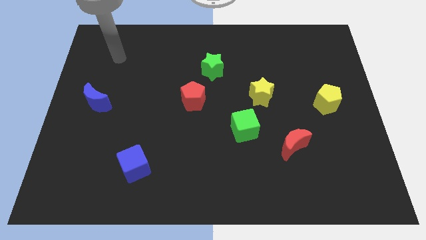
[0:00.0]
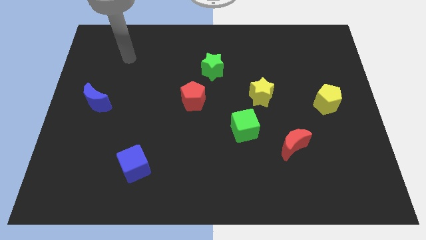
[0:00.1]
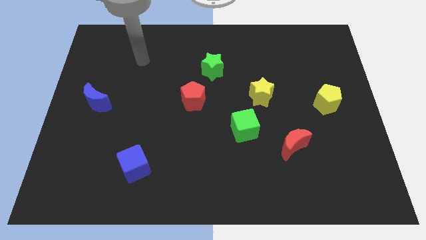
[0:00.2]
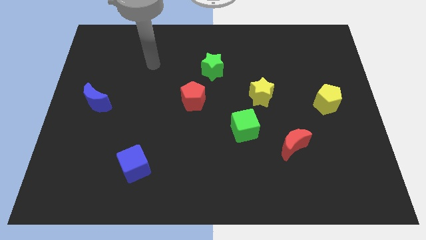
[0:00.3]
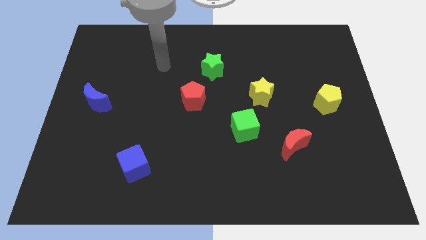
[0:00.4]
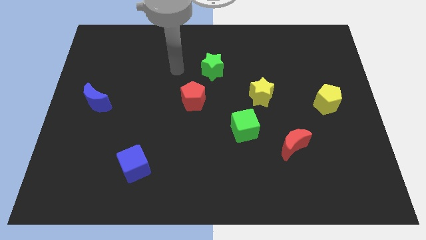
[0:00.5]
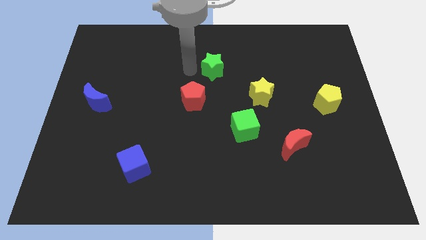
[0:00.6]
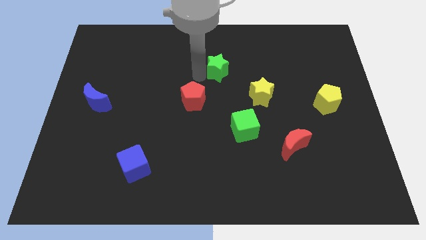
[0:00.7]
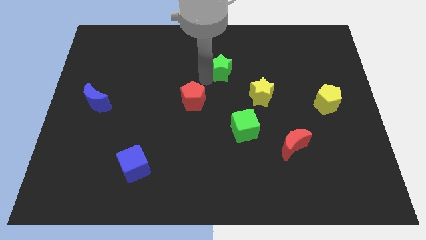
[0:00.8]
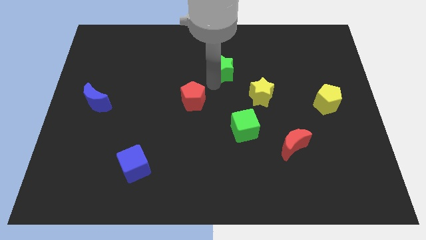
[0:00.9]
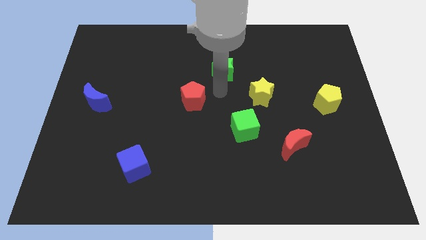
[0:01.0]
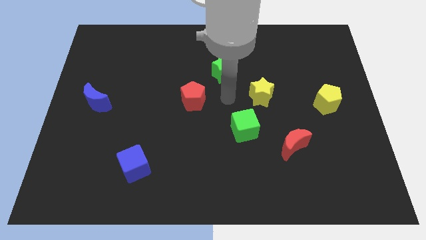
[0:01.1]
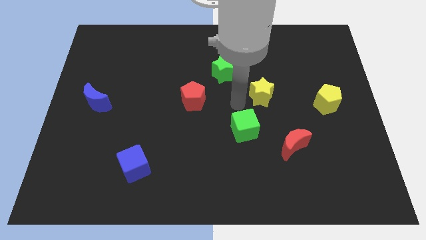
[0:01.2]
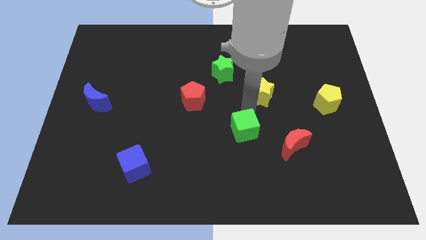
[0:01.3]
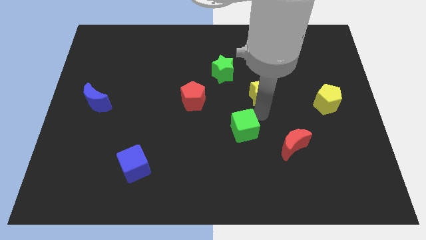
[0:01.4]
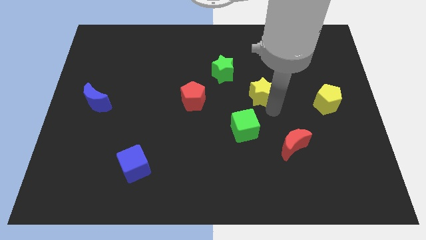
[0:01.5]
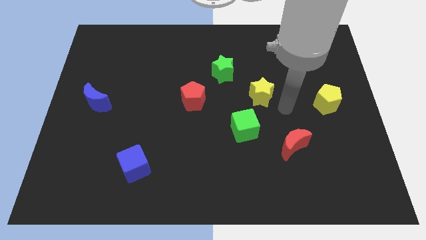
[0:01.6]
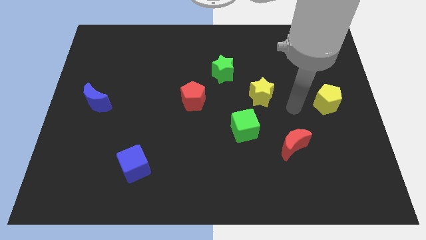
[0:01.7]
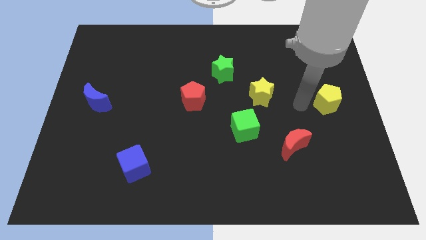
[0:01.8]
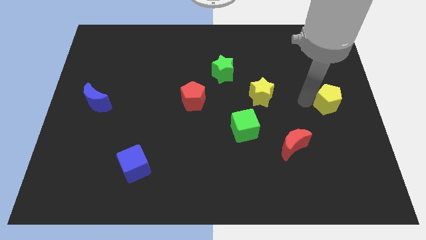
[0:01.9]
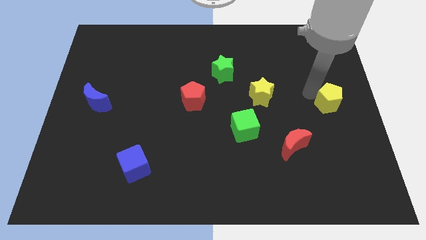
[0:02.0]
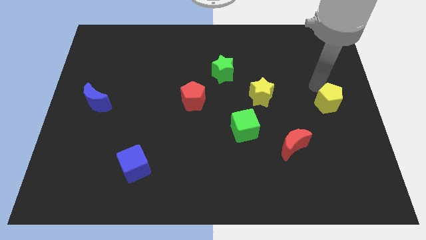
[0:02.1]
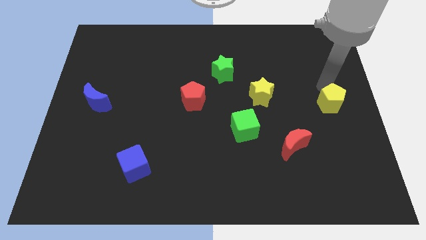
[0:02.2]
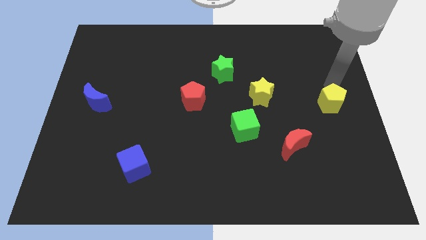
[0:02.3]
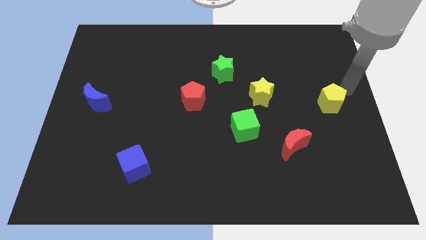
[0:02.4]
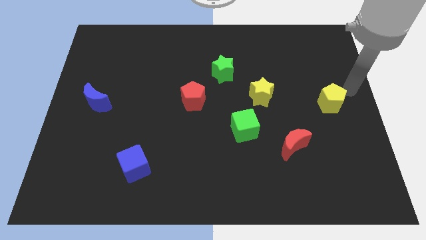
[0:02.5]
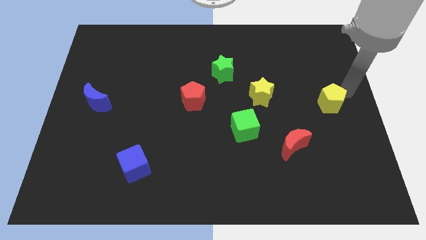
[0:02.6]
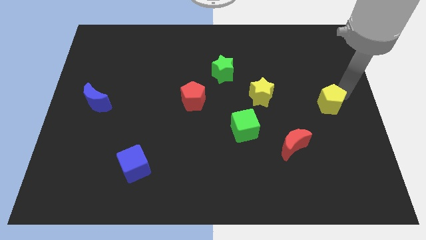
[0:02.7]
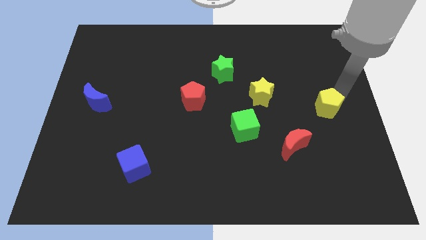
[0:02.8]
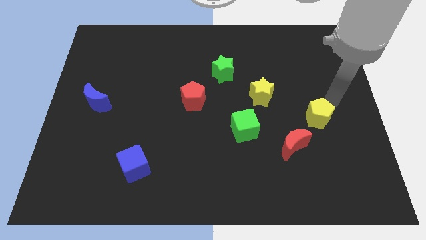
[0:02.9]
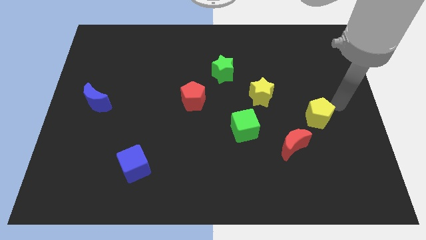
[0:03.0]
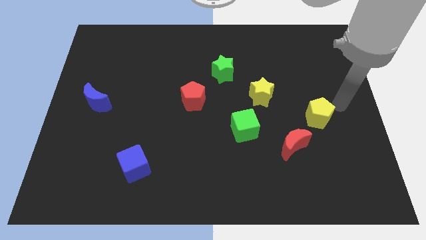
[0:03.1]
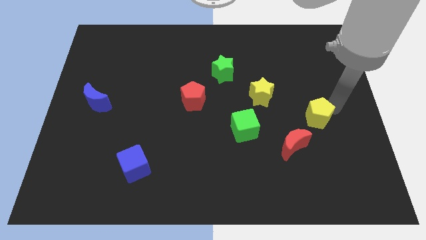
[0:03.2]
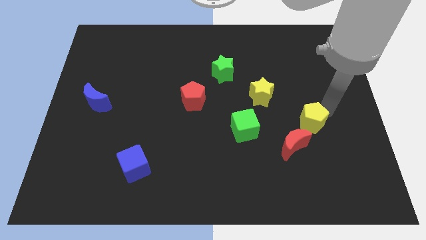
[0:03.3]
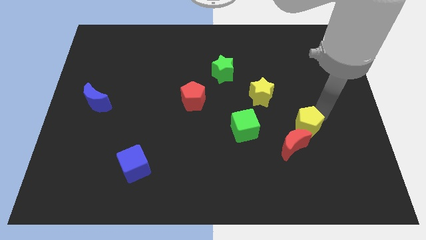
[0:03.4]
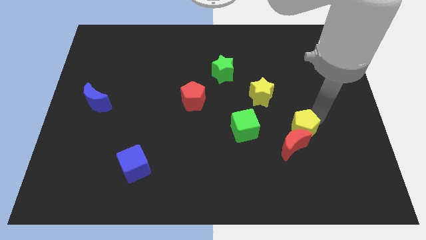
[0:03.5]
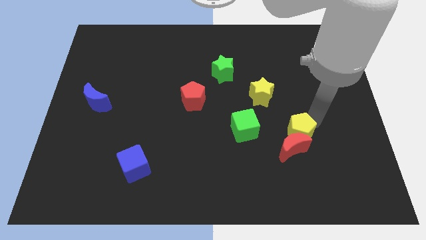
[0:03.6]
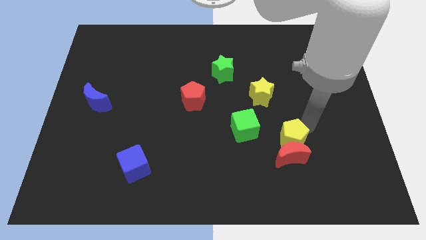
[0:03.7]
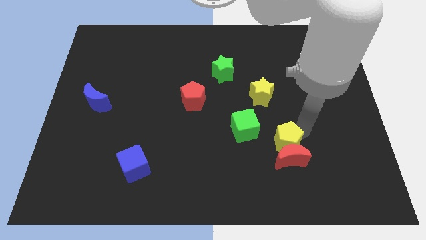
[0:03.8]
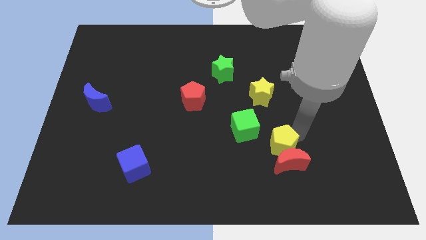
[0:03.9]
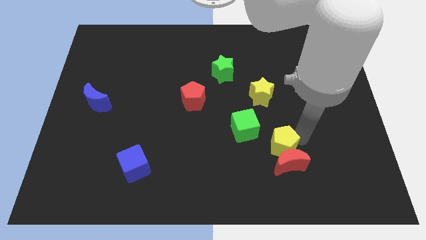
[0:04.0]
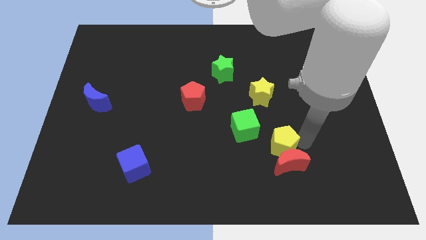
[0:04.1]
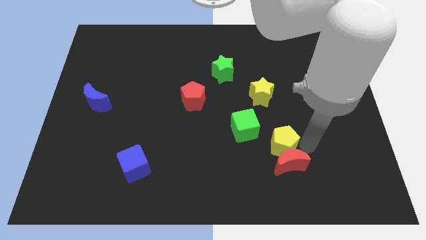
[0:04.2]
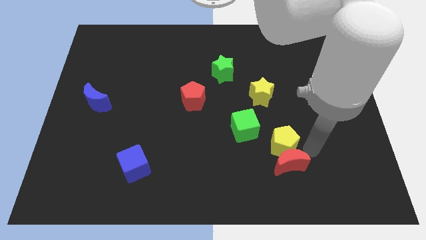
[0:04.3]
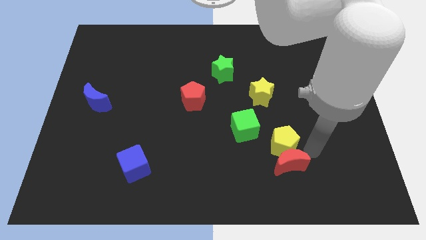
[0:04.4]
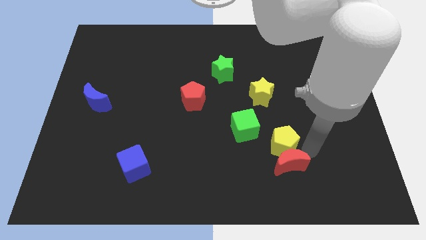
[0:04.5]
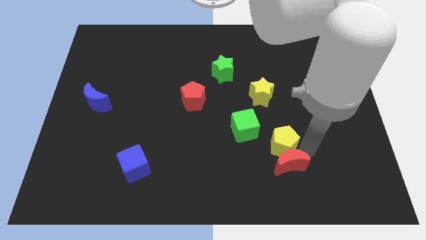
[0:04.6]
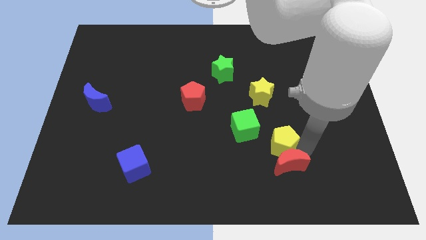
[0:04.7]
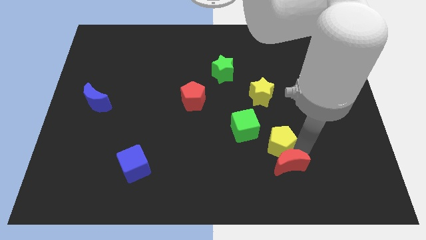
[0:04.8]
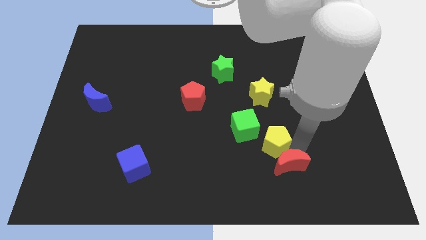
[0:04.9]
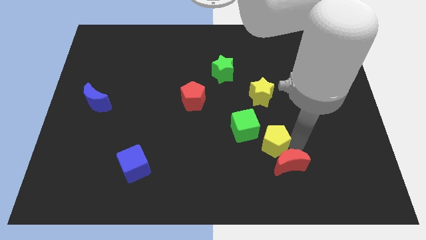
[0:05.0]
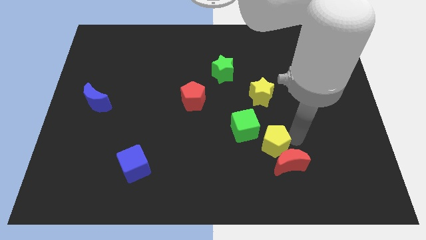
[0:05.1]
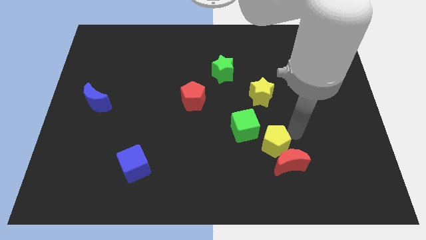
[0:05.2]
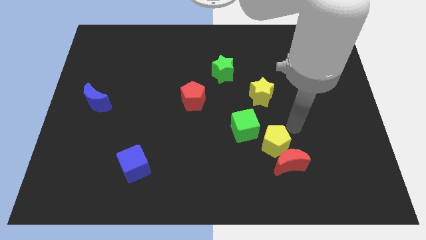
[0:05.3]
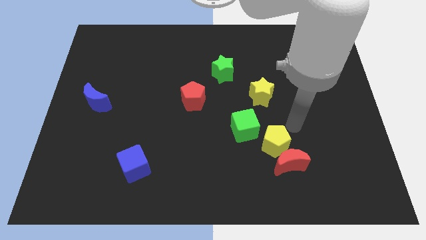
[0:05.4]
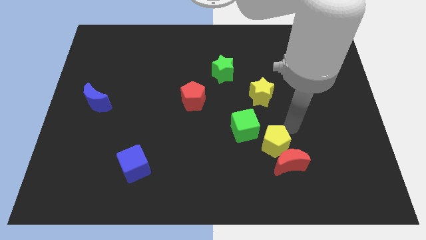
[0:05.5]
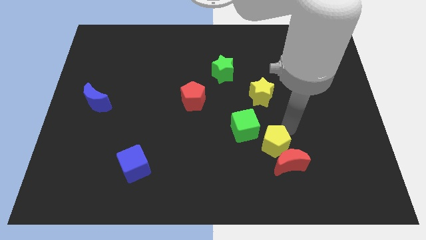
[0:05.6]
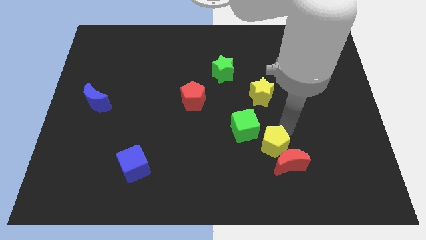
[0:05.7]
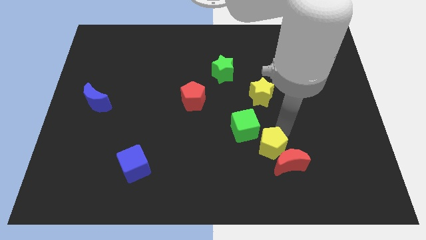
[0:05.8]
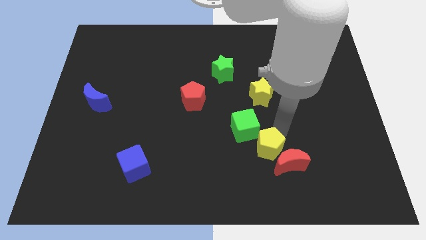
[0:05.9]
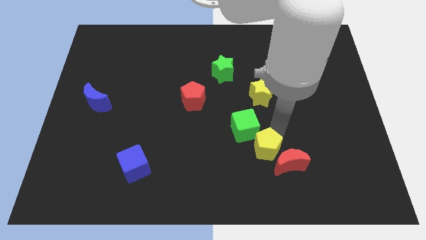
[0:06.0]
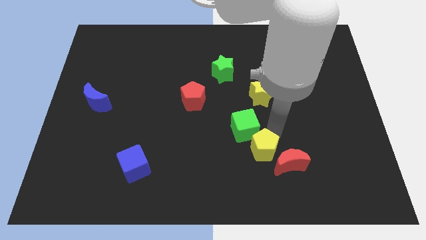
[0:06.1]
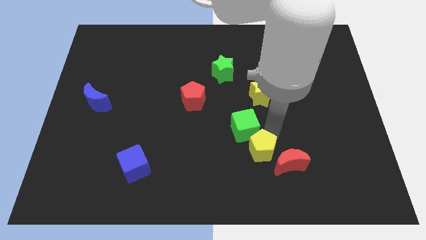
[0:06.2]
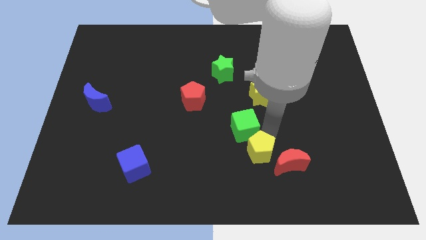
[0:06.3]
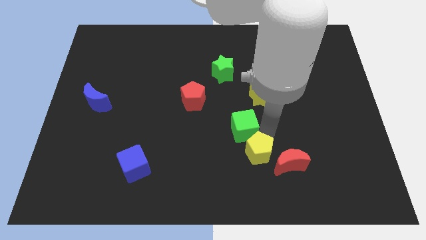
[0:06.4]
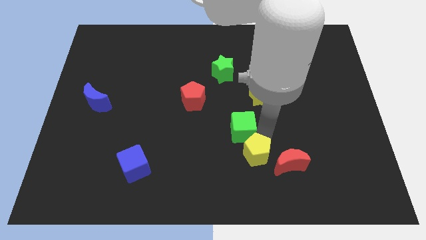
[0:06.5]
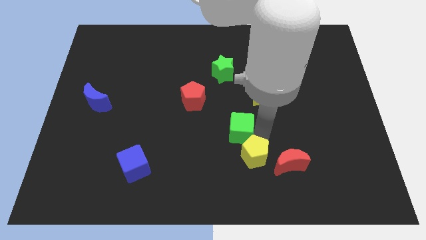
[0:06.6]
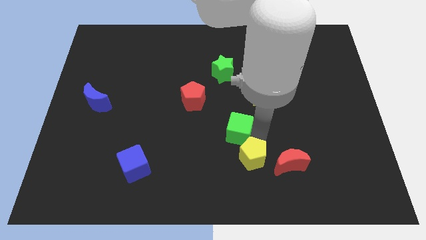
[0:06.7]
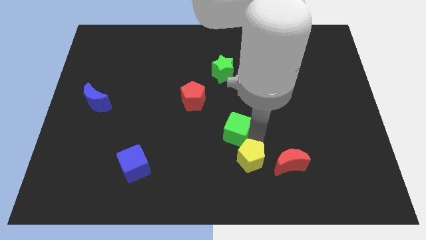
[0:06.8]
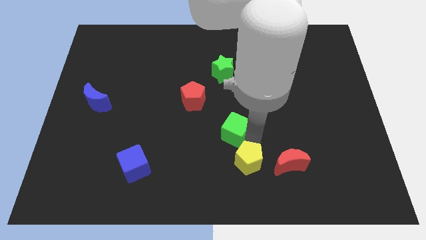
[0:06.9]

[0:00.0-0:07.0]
move the yellow pentagon to the bottom
